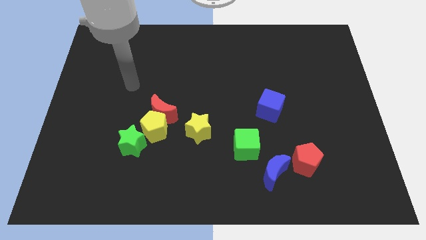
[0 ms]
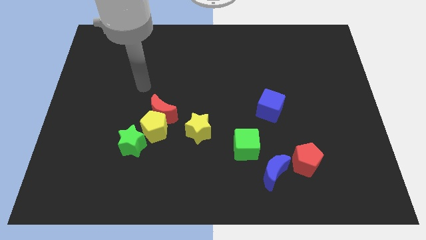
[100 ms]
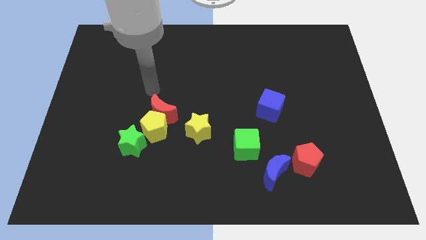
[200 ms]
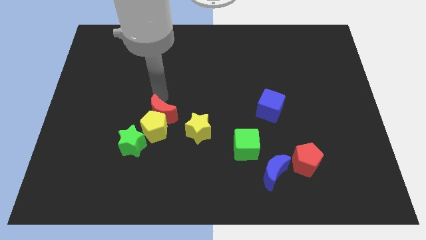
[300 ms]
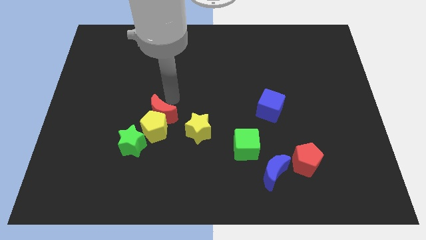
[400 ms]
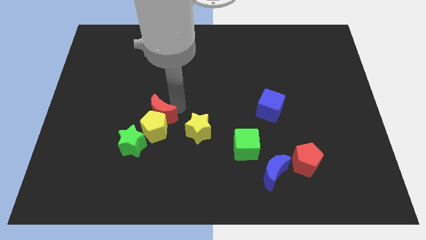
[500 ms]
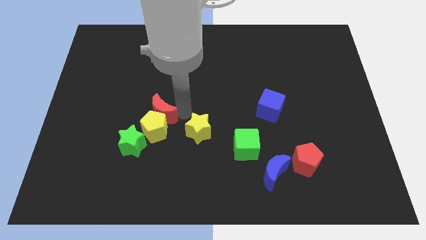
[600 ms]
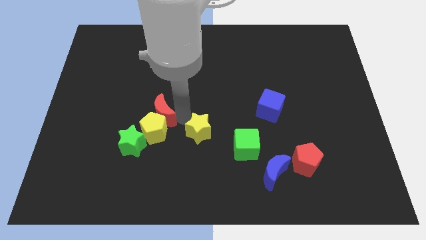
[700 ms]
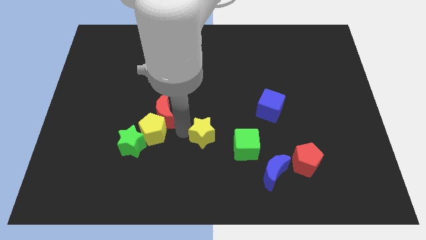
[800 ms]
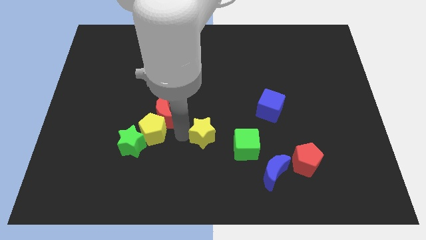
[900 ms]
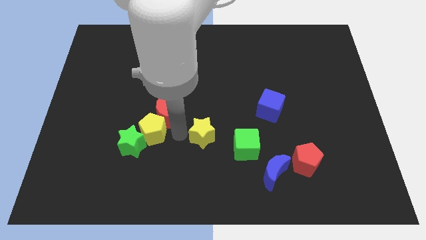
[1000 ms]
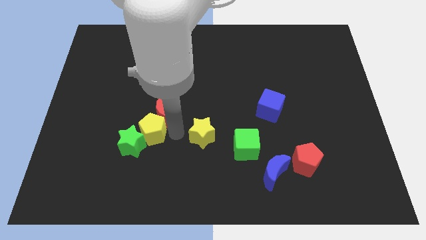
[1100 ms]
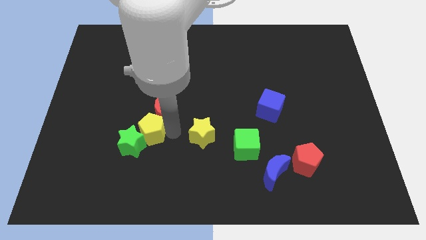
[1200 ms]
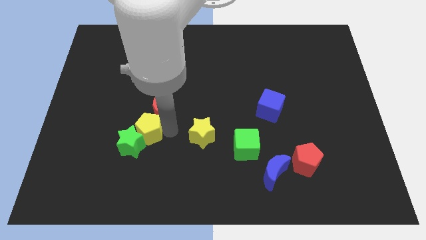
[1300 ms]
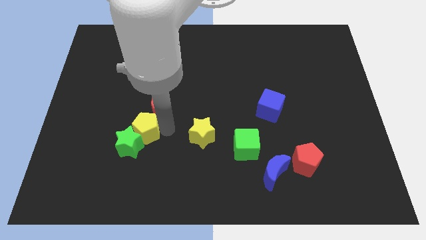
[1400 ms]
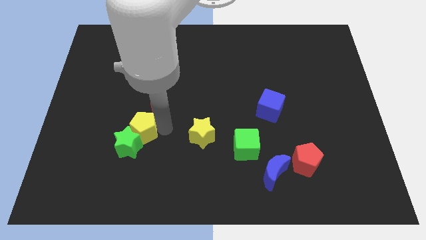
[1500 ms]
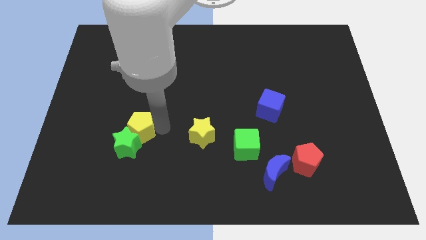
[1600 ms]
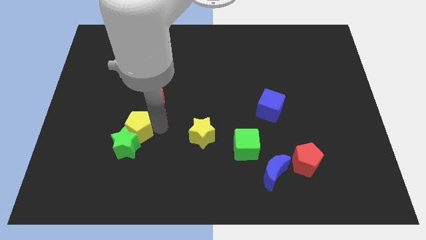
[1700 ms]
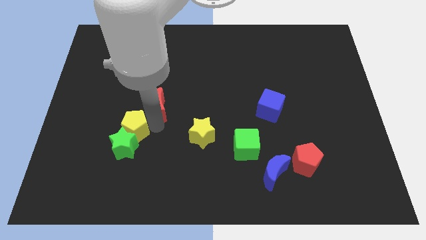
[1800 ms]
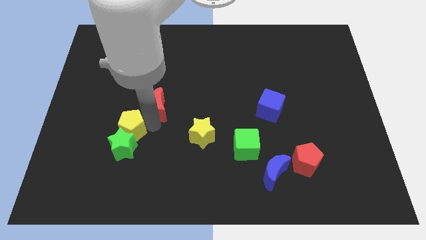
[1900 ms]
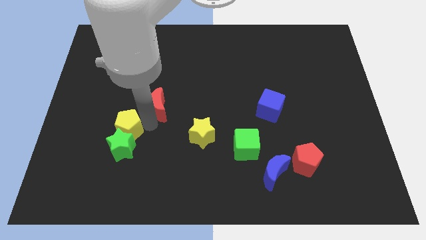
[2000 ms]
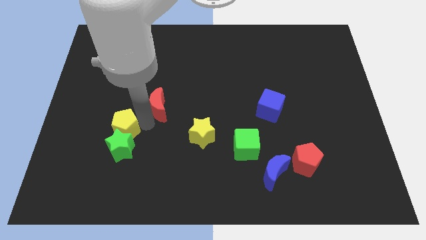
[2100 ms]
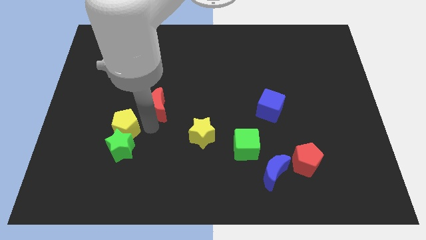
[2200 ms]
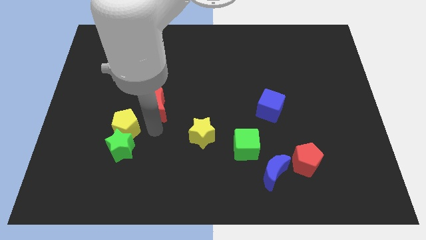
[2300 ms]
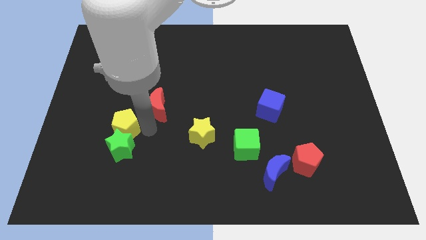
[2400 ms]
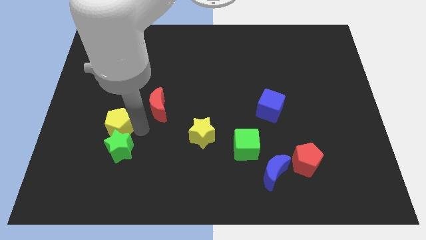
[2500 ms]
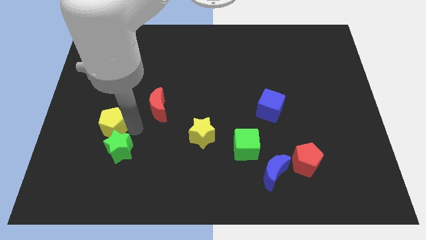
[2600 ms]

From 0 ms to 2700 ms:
pull the yellow pentagon apart from the red moon, green star, and yellow star

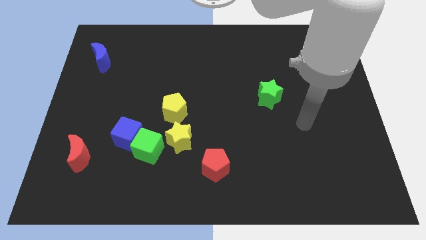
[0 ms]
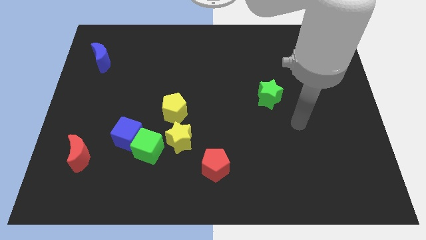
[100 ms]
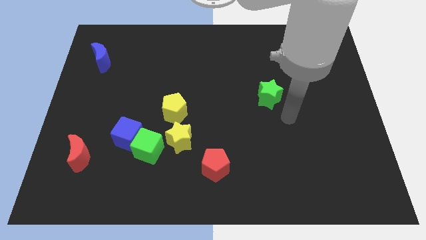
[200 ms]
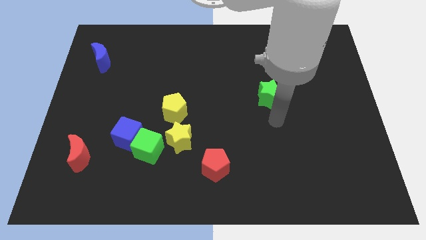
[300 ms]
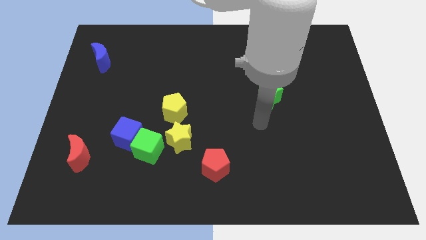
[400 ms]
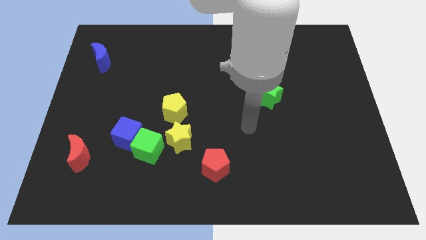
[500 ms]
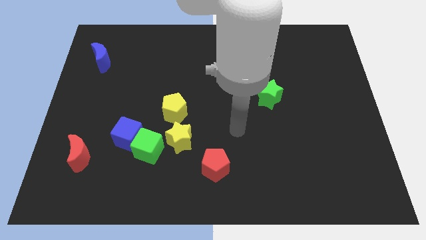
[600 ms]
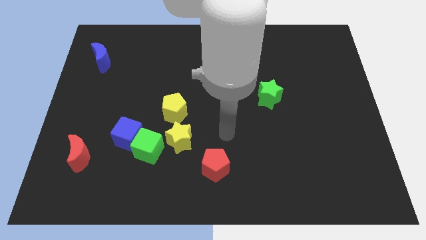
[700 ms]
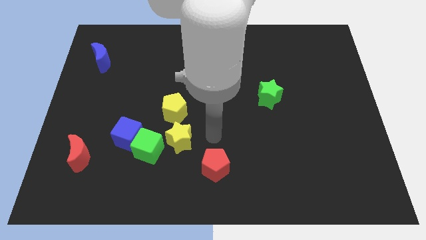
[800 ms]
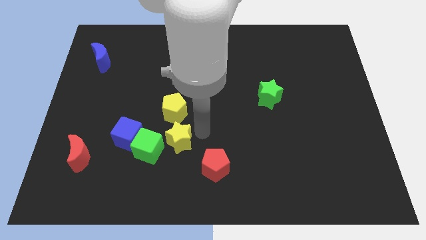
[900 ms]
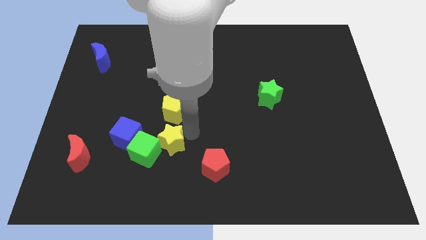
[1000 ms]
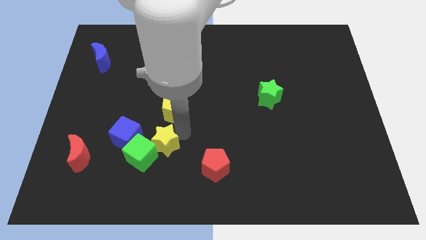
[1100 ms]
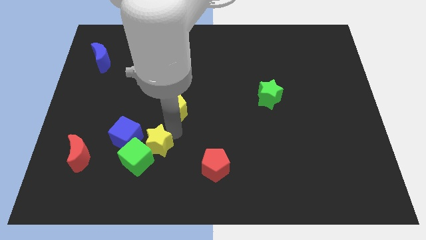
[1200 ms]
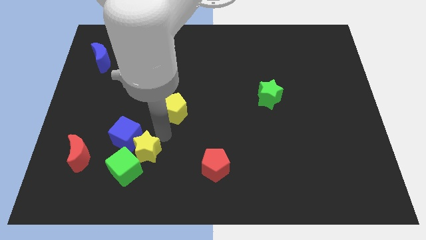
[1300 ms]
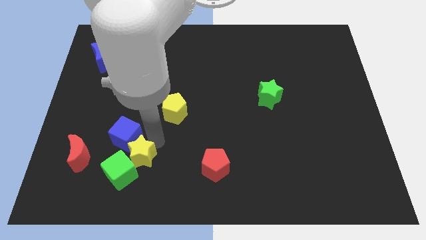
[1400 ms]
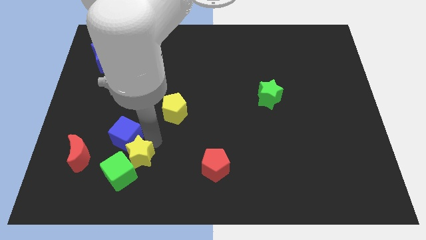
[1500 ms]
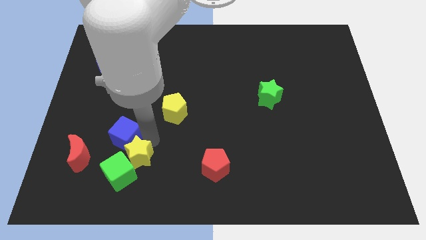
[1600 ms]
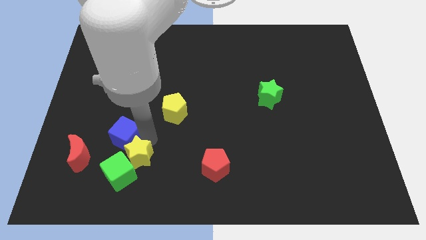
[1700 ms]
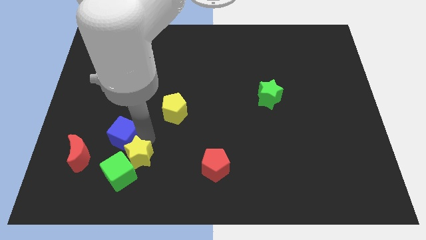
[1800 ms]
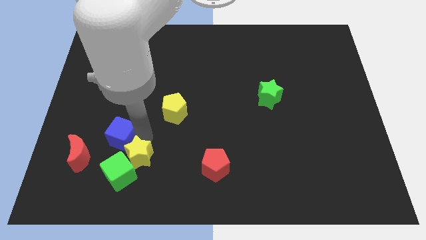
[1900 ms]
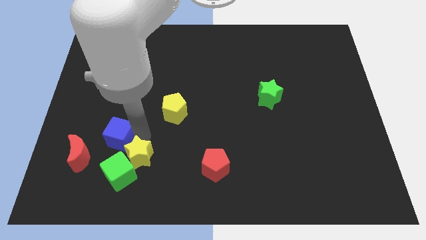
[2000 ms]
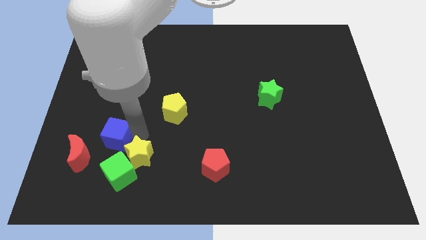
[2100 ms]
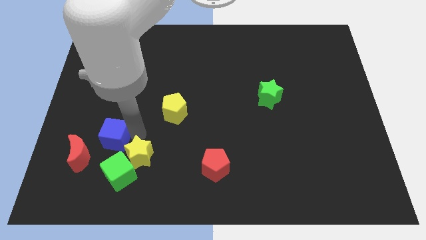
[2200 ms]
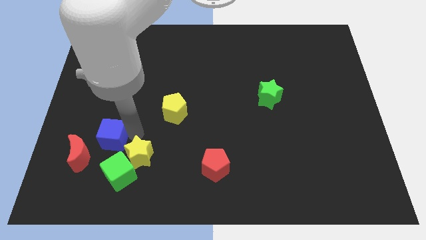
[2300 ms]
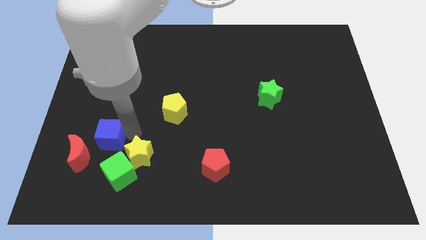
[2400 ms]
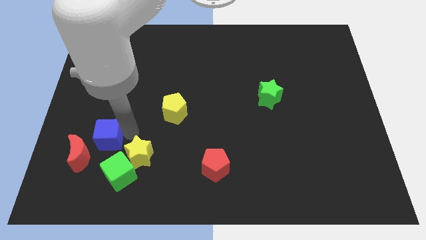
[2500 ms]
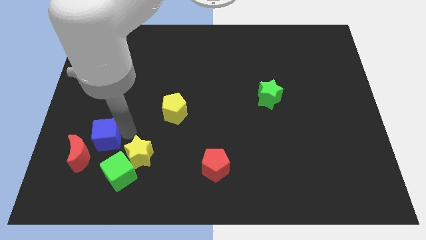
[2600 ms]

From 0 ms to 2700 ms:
move the blue cube away from the green cube

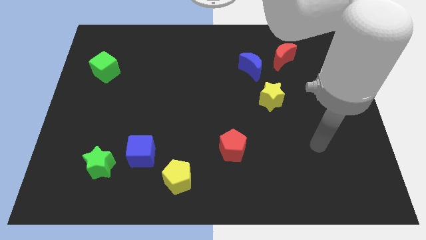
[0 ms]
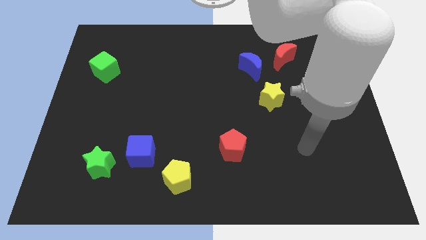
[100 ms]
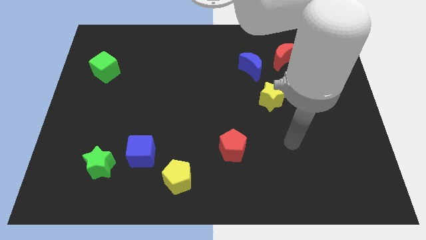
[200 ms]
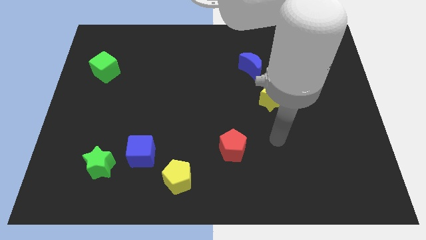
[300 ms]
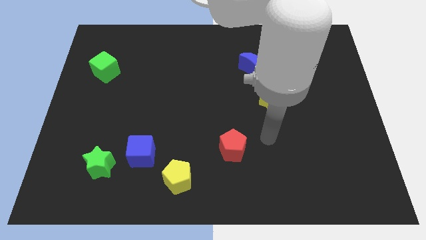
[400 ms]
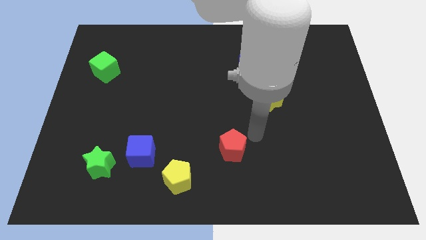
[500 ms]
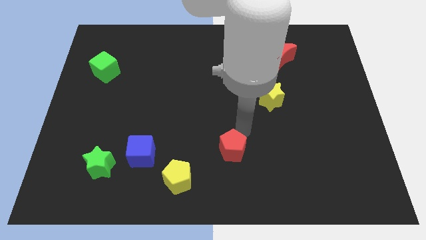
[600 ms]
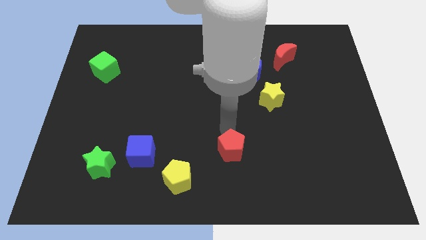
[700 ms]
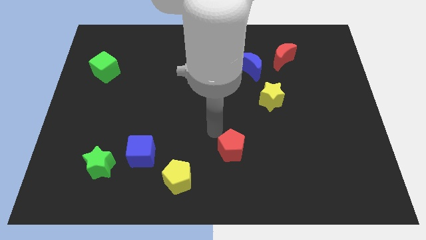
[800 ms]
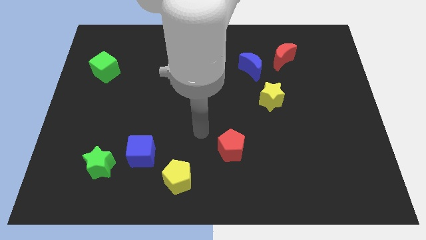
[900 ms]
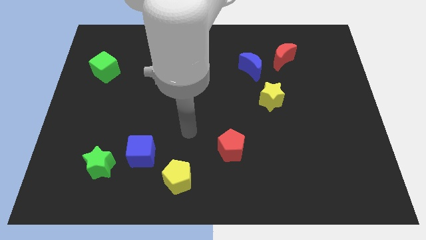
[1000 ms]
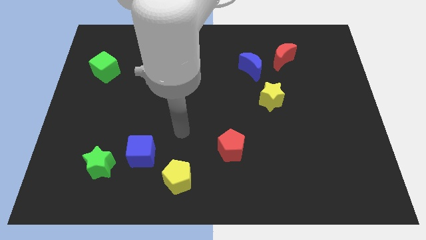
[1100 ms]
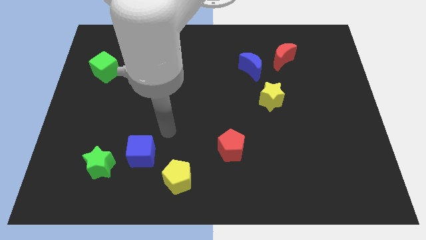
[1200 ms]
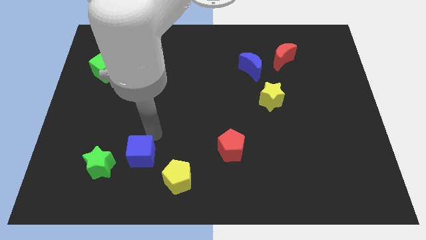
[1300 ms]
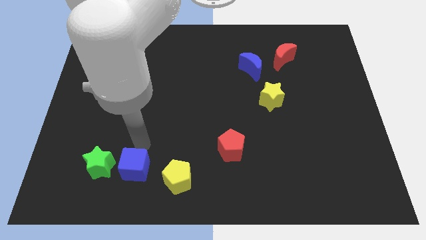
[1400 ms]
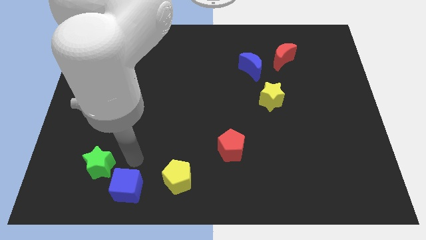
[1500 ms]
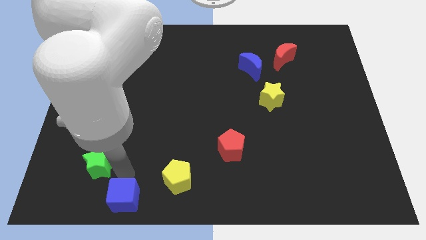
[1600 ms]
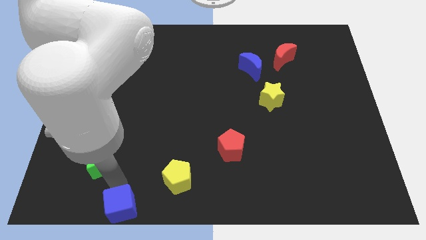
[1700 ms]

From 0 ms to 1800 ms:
separate the green star from the blue cube

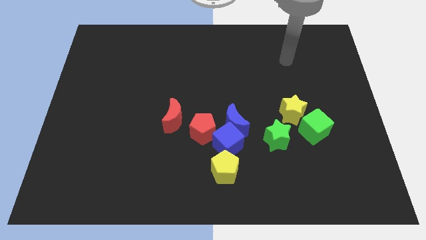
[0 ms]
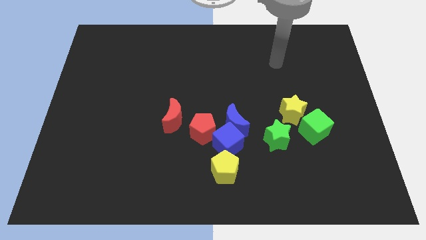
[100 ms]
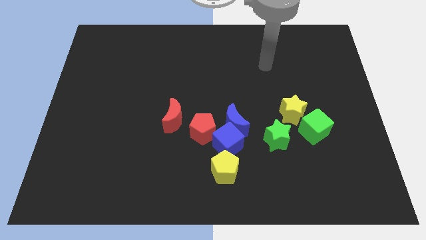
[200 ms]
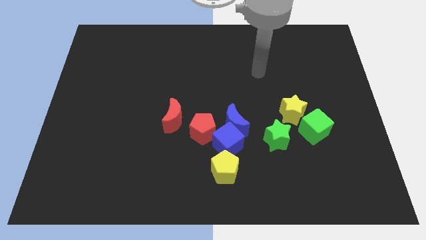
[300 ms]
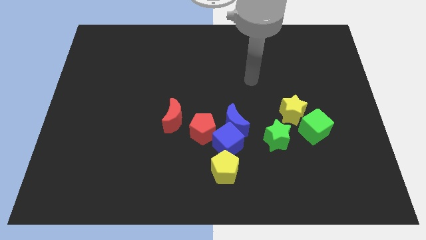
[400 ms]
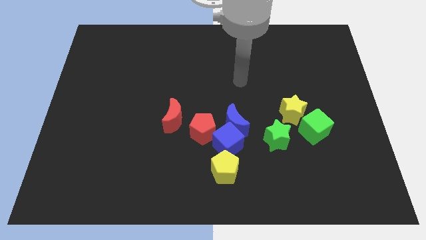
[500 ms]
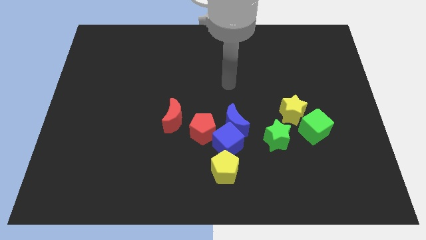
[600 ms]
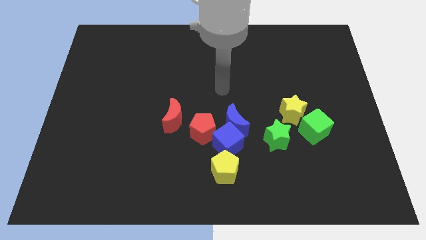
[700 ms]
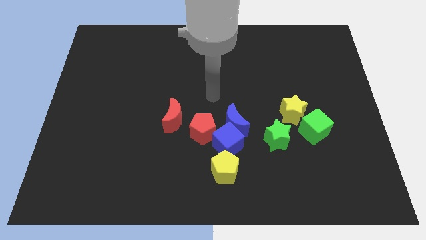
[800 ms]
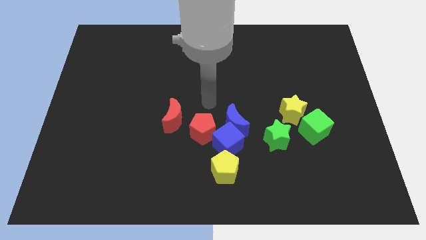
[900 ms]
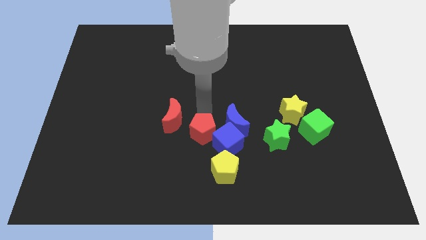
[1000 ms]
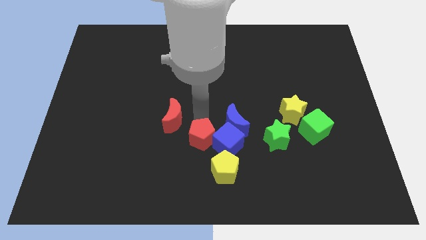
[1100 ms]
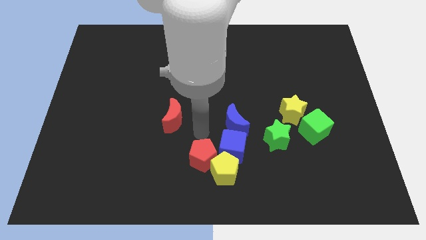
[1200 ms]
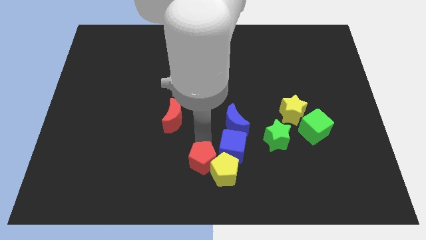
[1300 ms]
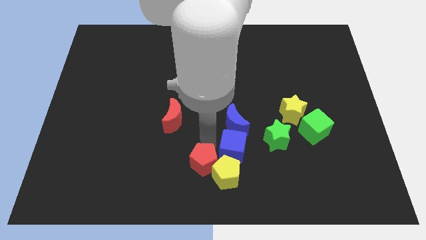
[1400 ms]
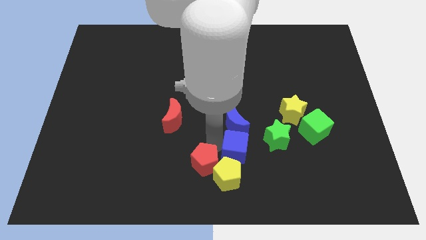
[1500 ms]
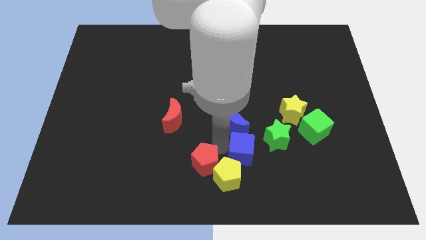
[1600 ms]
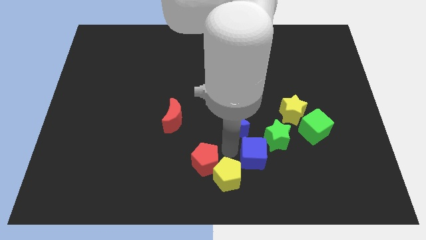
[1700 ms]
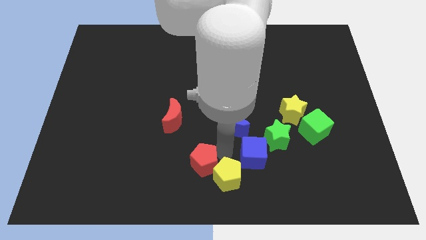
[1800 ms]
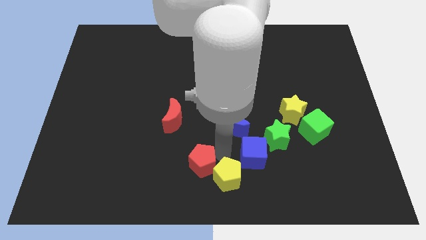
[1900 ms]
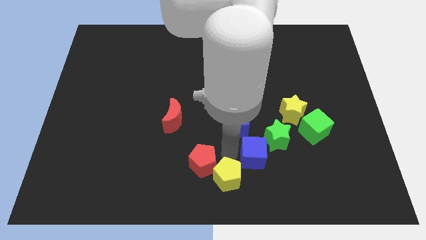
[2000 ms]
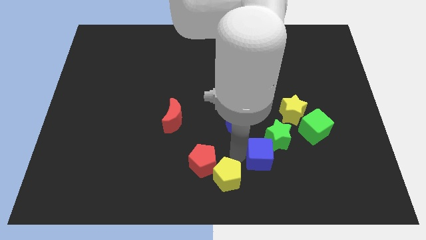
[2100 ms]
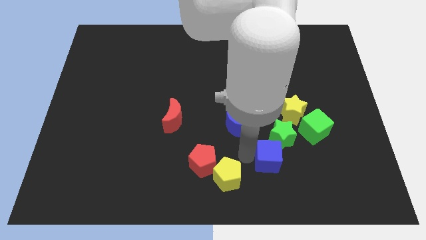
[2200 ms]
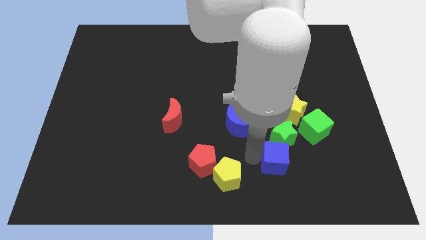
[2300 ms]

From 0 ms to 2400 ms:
move the blue cube away from the blue moon, red pentagon, and yellow pentagon
